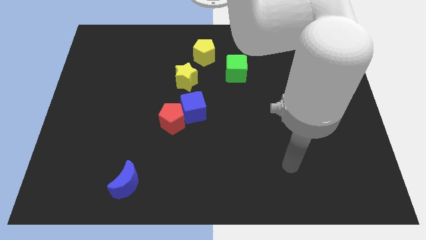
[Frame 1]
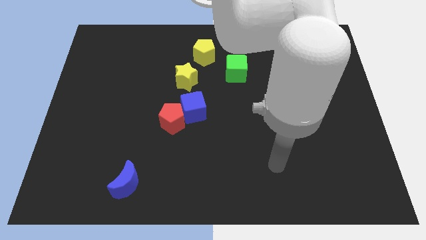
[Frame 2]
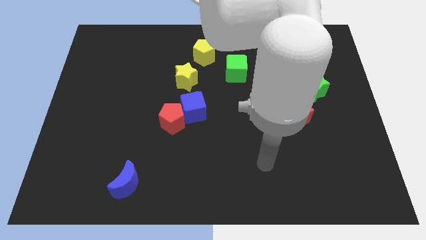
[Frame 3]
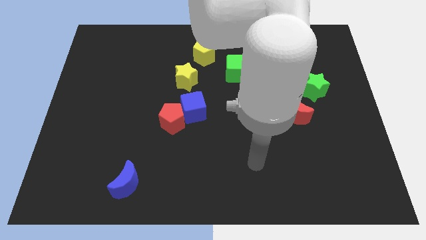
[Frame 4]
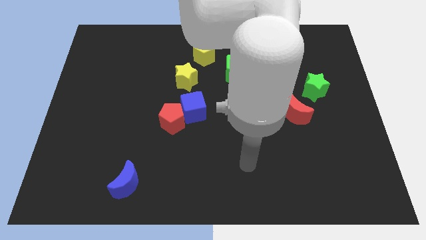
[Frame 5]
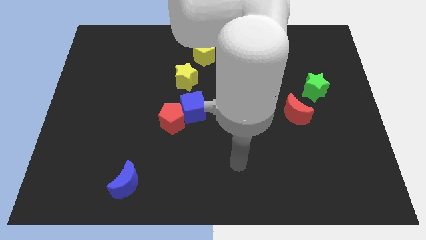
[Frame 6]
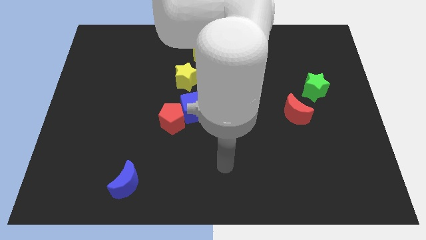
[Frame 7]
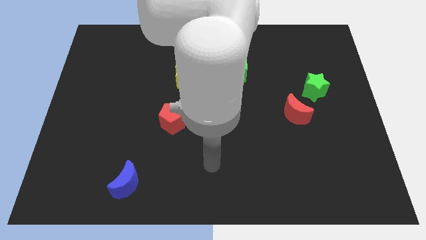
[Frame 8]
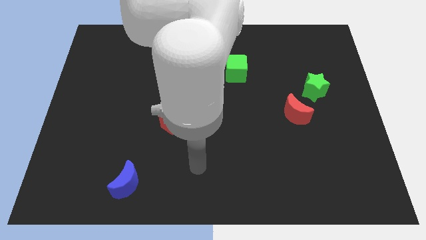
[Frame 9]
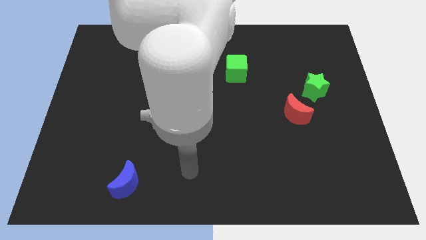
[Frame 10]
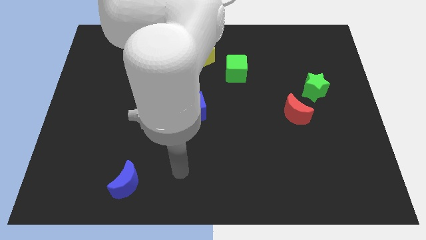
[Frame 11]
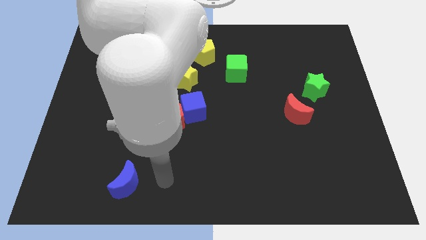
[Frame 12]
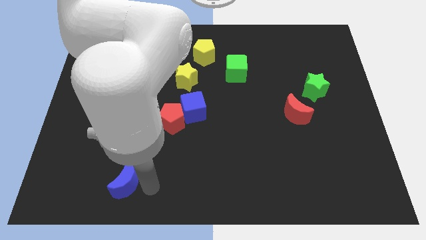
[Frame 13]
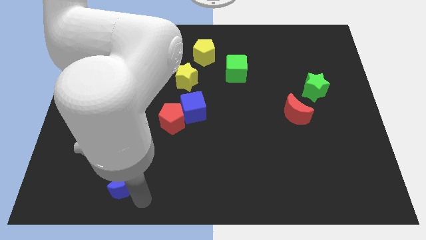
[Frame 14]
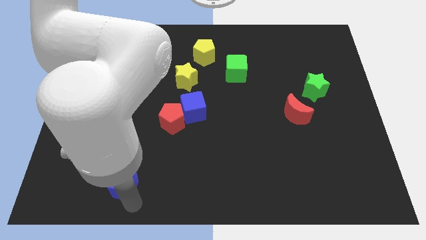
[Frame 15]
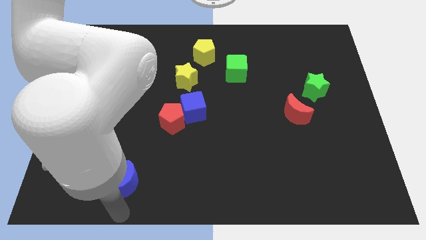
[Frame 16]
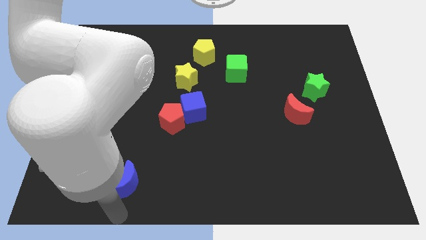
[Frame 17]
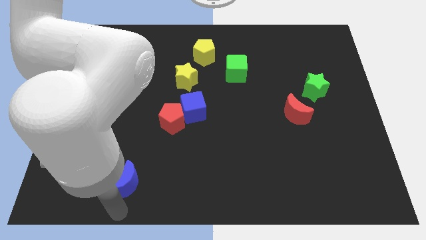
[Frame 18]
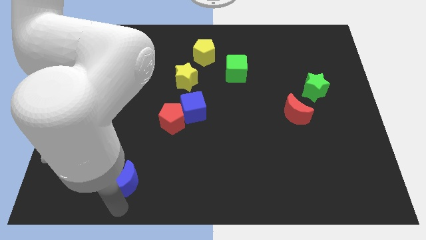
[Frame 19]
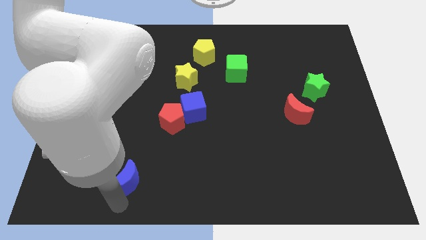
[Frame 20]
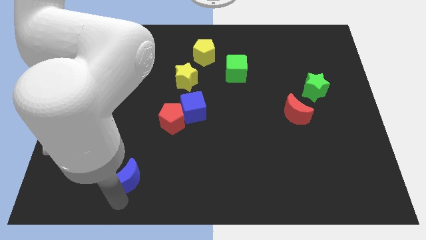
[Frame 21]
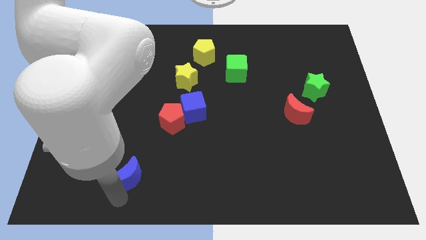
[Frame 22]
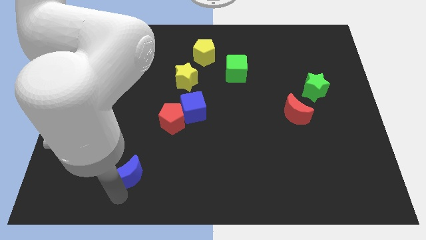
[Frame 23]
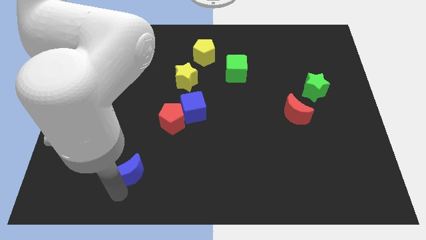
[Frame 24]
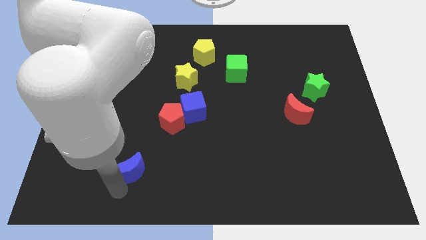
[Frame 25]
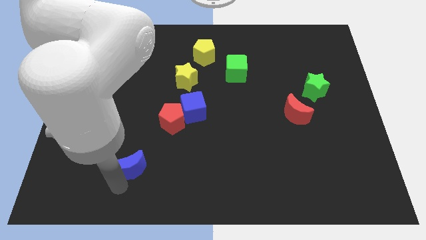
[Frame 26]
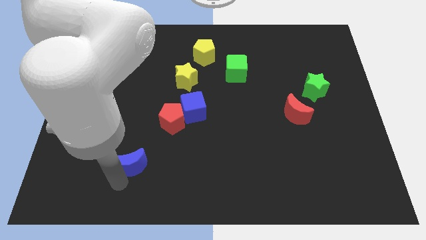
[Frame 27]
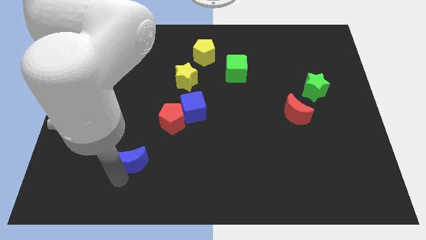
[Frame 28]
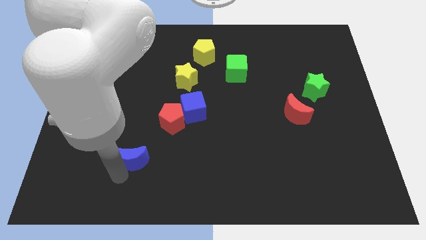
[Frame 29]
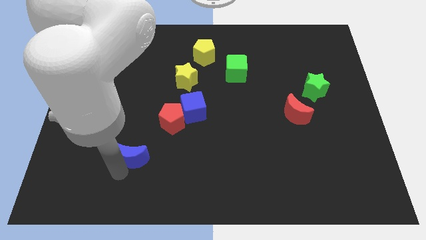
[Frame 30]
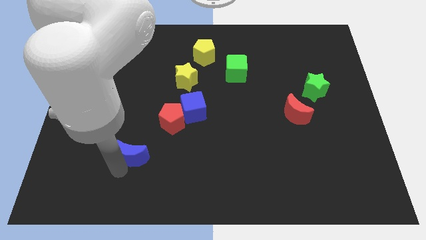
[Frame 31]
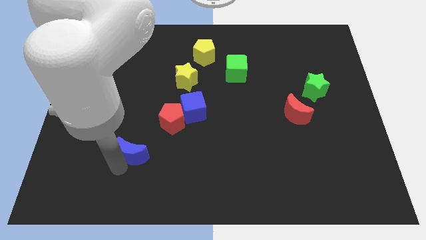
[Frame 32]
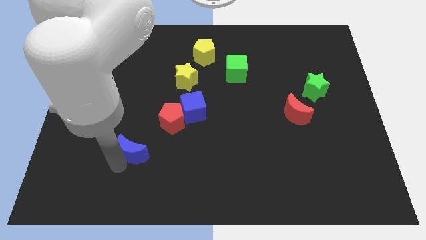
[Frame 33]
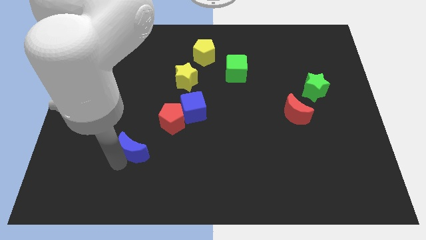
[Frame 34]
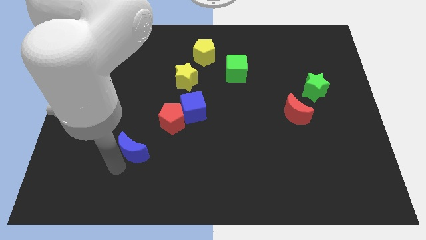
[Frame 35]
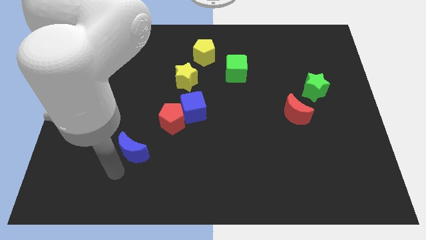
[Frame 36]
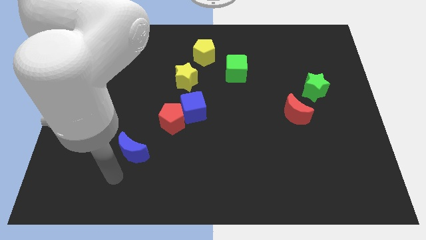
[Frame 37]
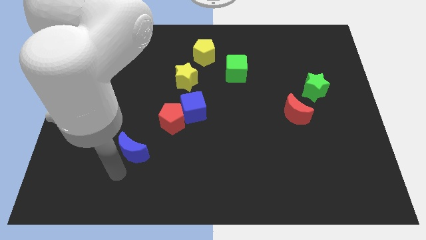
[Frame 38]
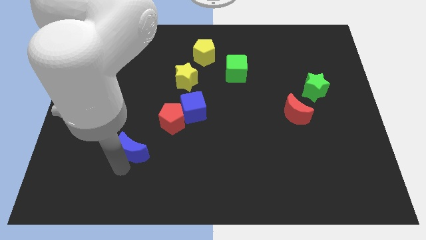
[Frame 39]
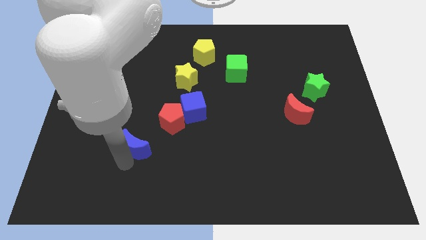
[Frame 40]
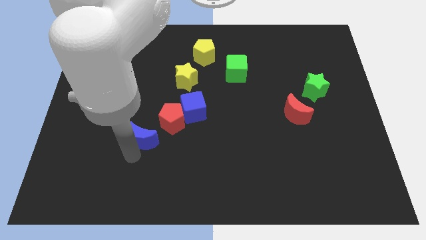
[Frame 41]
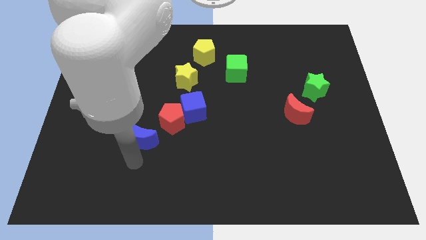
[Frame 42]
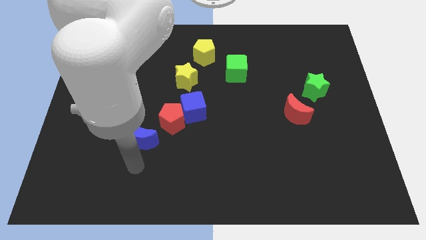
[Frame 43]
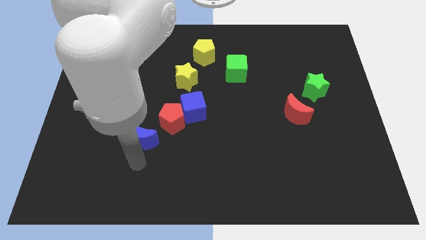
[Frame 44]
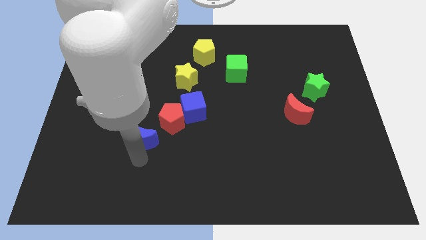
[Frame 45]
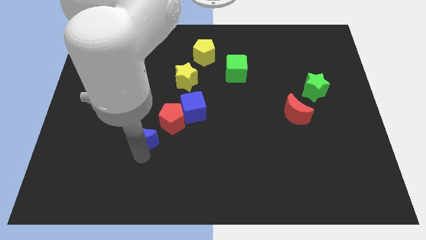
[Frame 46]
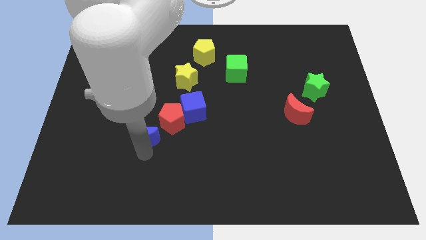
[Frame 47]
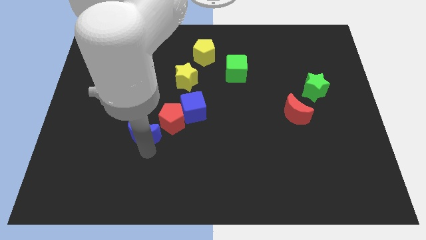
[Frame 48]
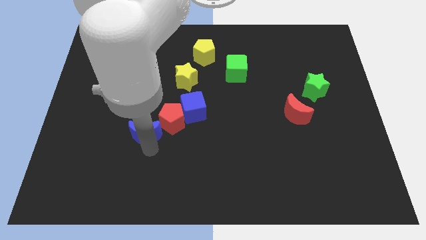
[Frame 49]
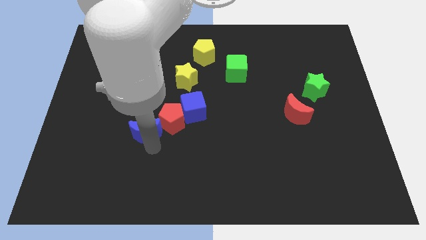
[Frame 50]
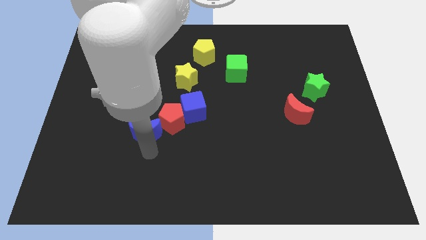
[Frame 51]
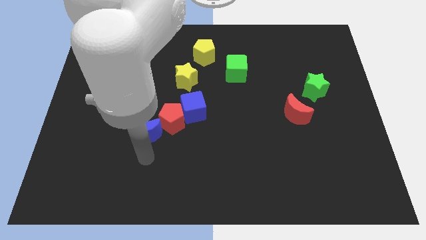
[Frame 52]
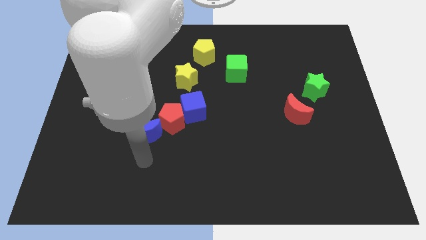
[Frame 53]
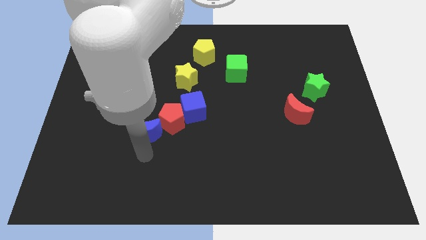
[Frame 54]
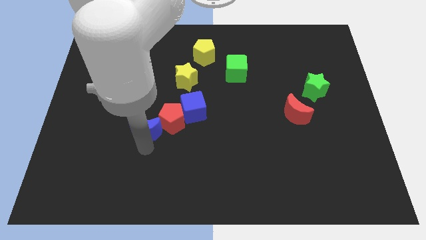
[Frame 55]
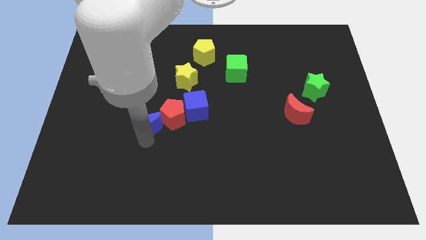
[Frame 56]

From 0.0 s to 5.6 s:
move the blue moon just left of the blue cube

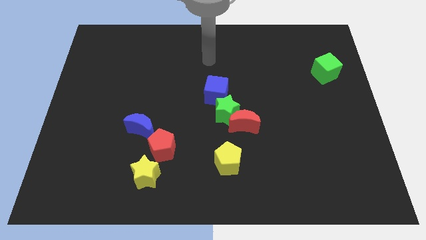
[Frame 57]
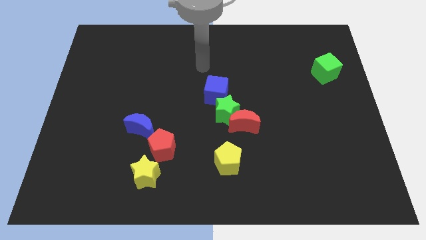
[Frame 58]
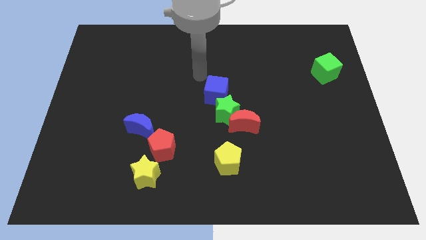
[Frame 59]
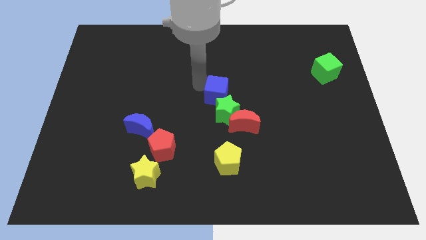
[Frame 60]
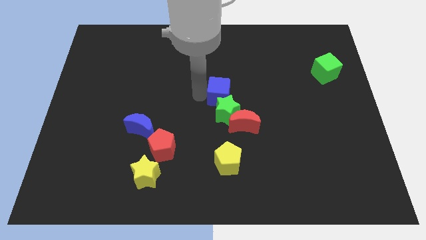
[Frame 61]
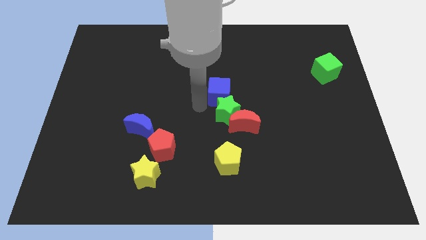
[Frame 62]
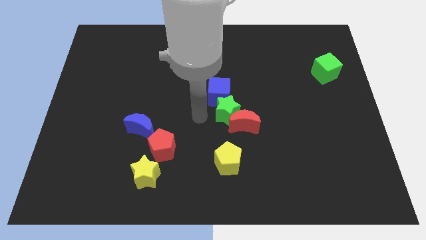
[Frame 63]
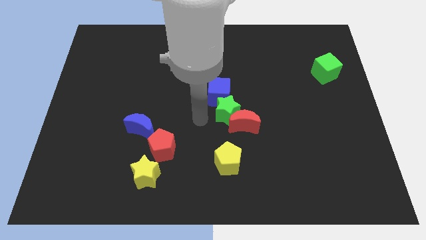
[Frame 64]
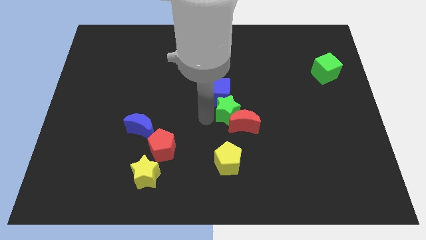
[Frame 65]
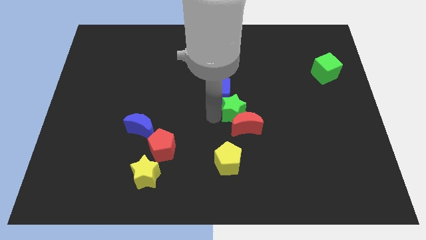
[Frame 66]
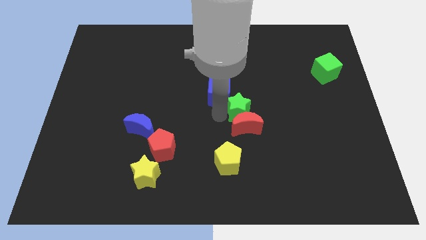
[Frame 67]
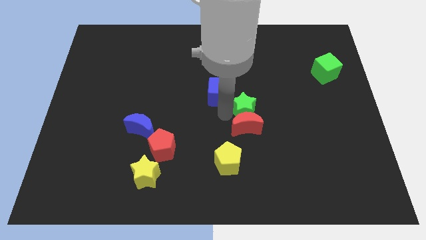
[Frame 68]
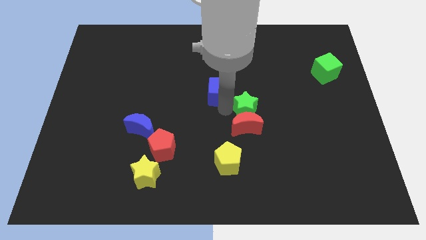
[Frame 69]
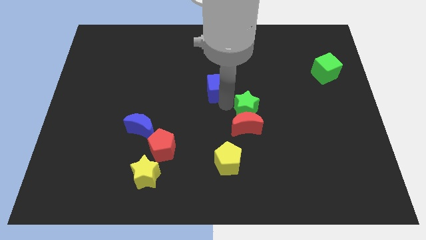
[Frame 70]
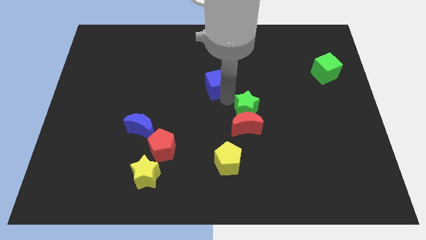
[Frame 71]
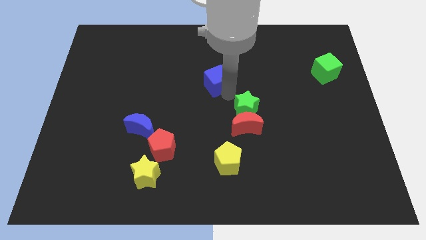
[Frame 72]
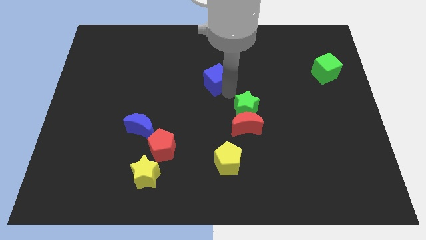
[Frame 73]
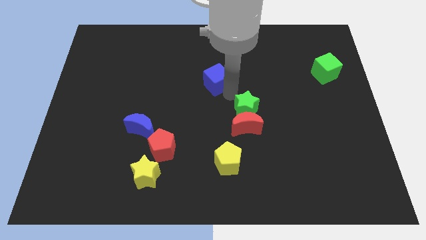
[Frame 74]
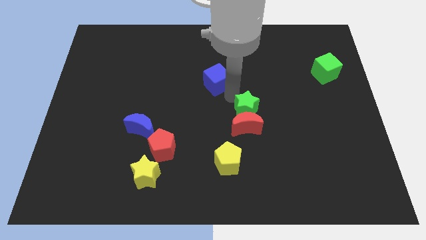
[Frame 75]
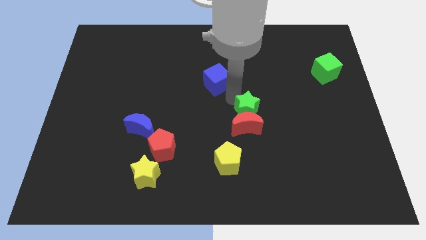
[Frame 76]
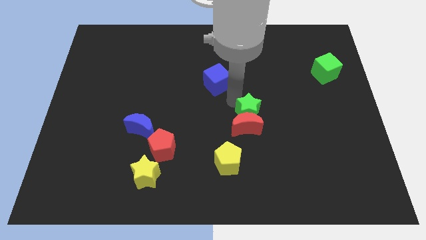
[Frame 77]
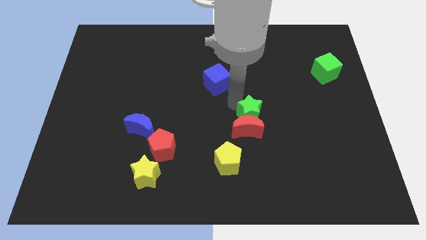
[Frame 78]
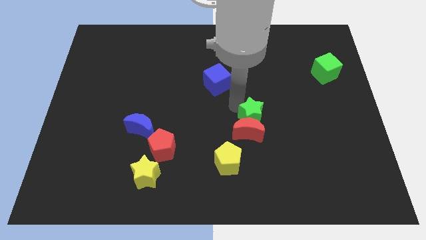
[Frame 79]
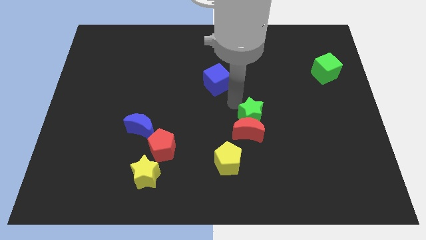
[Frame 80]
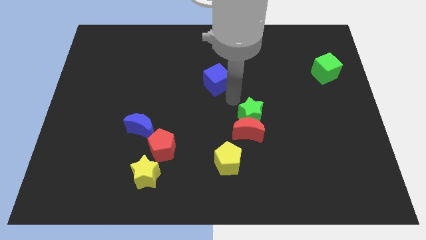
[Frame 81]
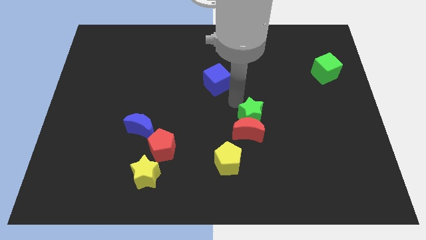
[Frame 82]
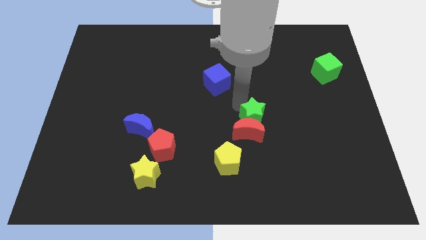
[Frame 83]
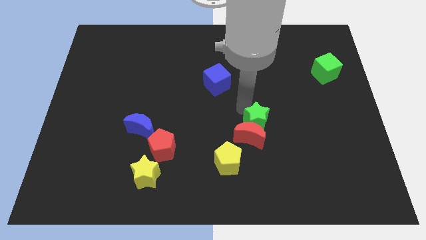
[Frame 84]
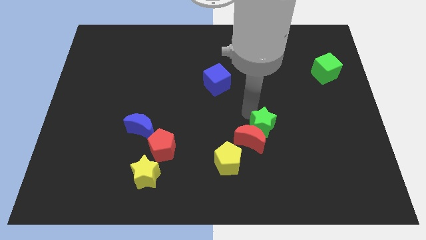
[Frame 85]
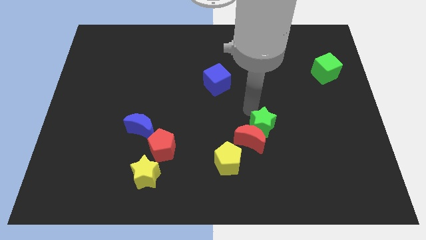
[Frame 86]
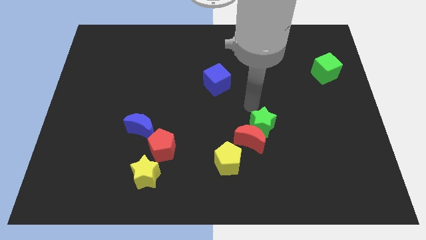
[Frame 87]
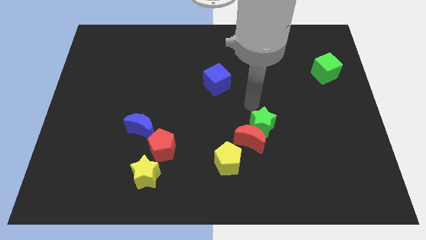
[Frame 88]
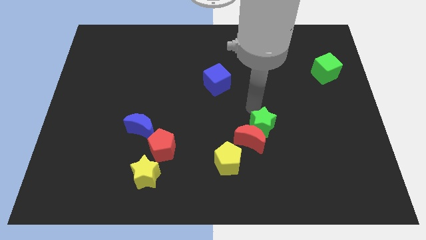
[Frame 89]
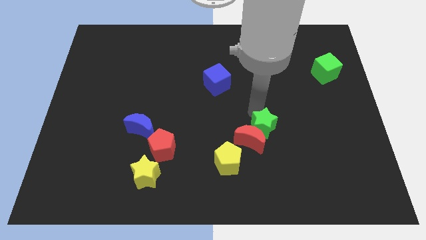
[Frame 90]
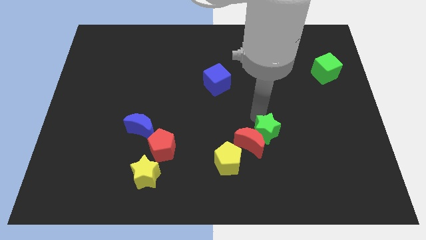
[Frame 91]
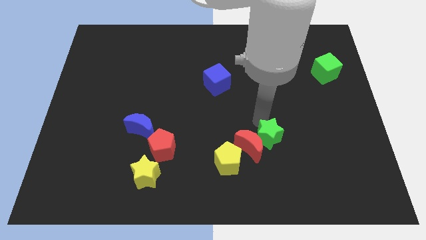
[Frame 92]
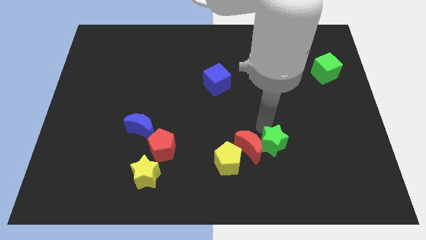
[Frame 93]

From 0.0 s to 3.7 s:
put the green star right of the yellow pentagon
